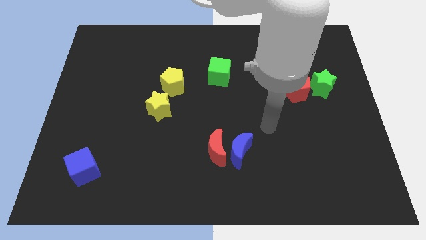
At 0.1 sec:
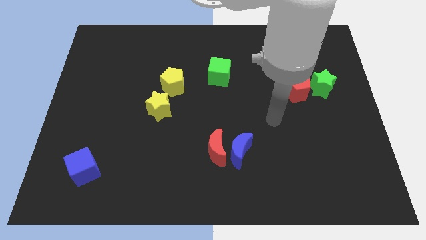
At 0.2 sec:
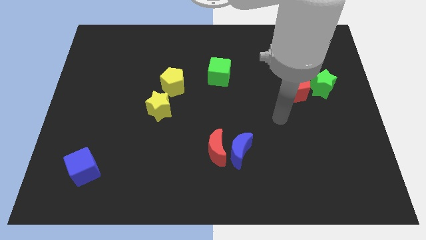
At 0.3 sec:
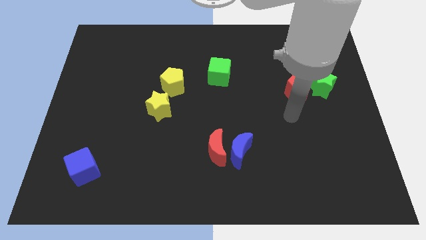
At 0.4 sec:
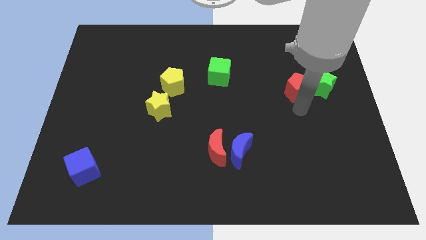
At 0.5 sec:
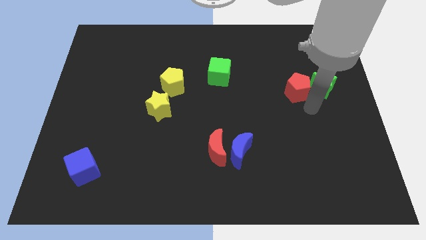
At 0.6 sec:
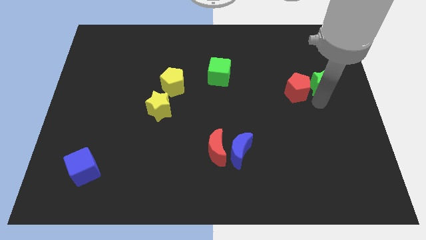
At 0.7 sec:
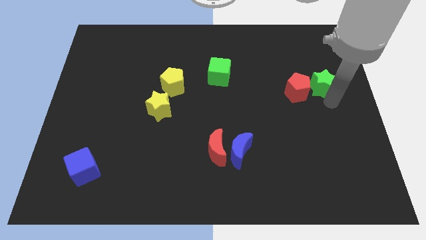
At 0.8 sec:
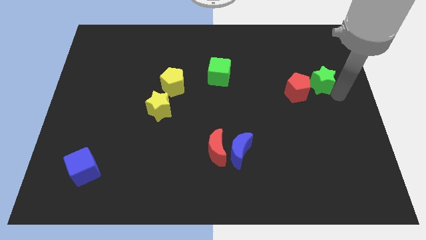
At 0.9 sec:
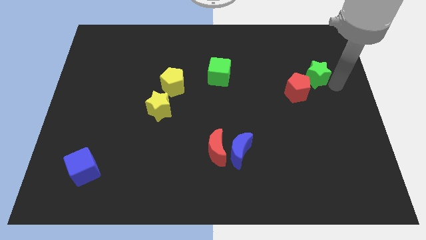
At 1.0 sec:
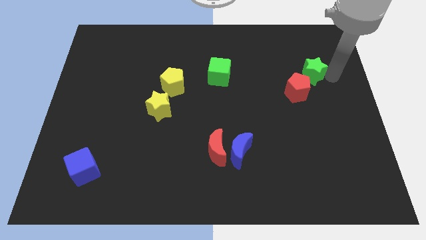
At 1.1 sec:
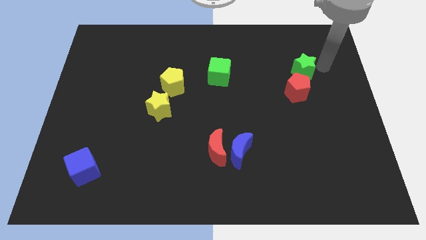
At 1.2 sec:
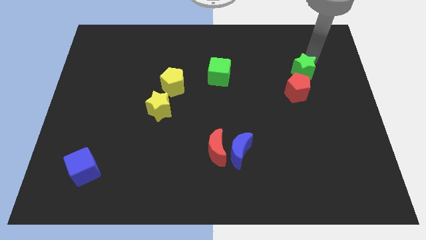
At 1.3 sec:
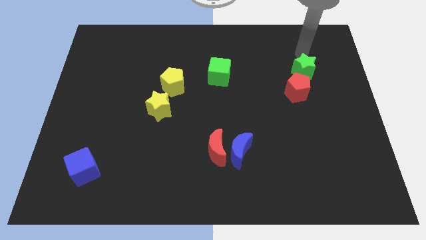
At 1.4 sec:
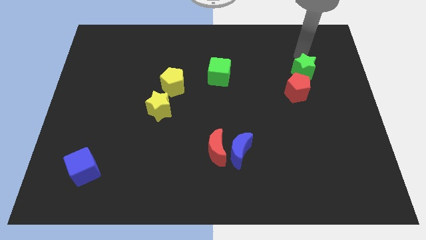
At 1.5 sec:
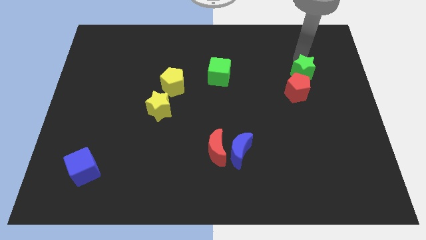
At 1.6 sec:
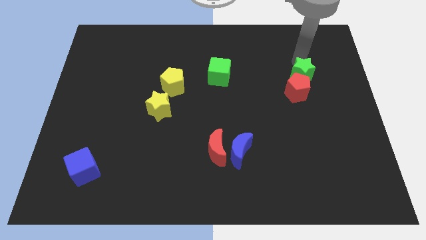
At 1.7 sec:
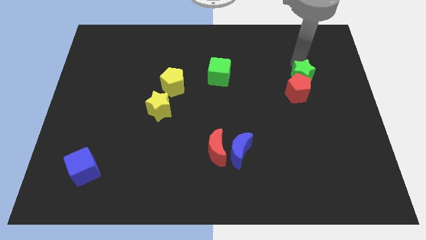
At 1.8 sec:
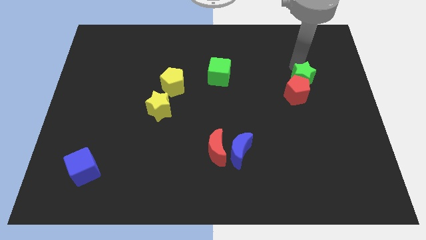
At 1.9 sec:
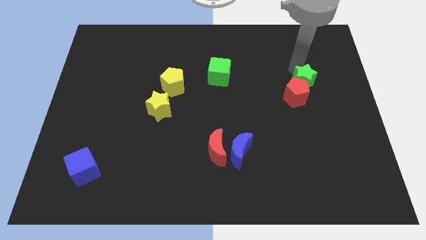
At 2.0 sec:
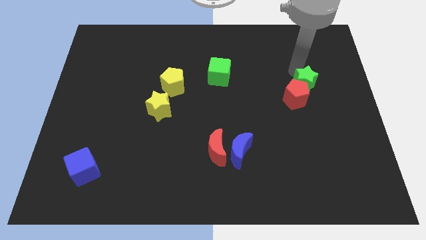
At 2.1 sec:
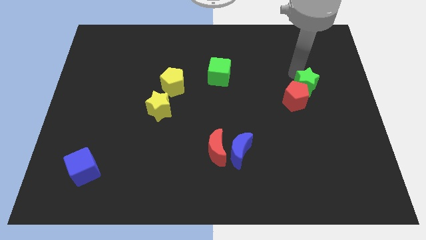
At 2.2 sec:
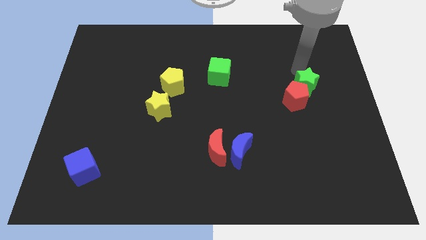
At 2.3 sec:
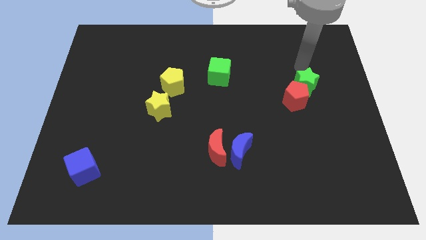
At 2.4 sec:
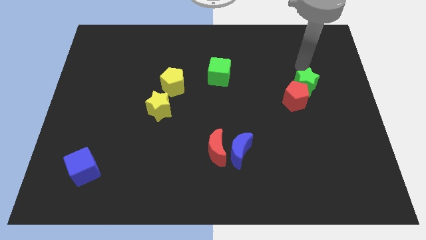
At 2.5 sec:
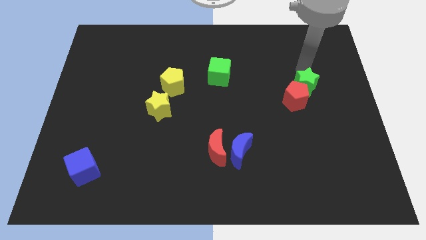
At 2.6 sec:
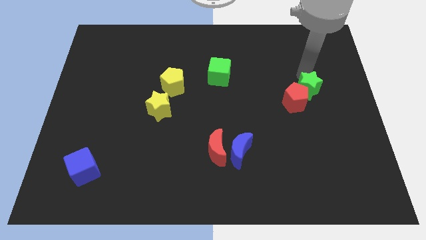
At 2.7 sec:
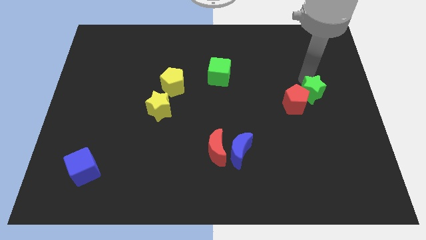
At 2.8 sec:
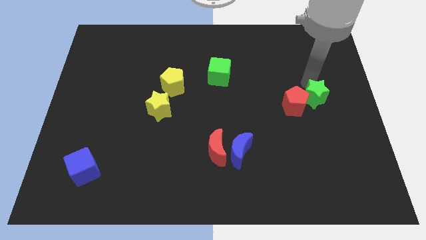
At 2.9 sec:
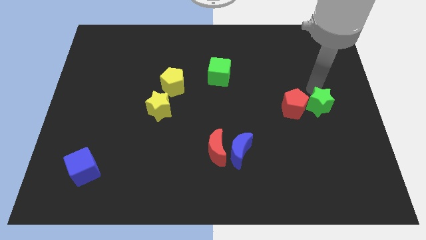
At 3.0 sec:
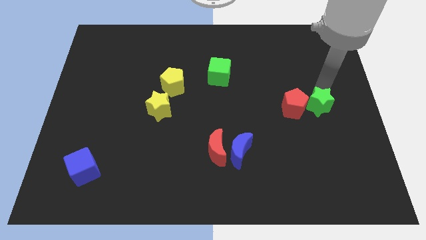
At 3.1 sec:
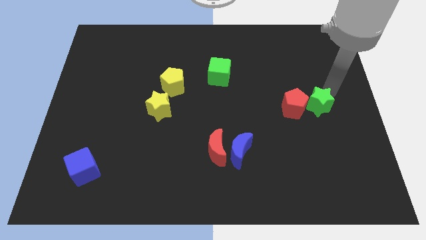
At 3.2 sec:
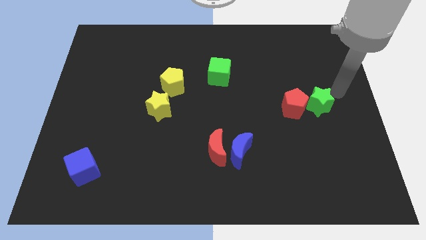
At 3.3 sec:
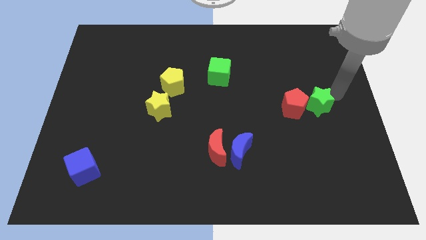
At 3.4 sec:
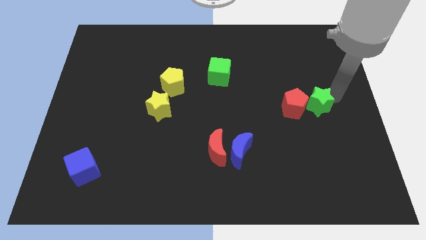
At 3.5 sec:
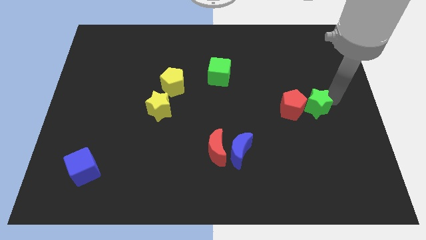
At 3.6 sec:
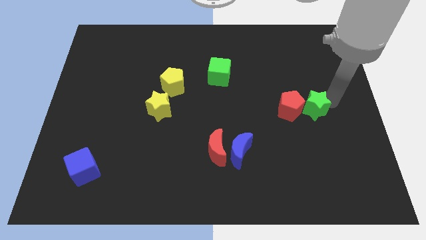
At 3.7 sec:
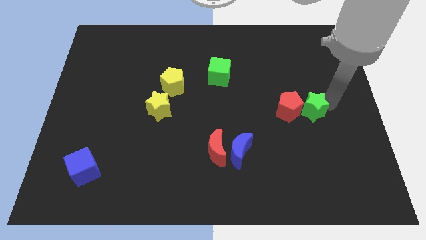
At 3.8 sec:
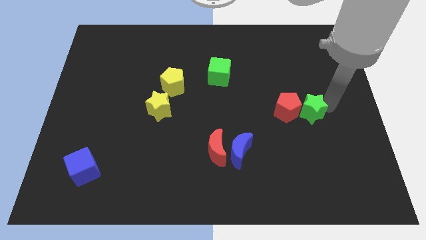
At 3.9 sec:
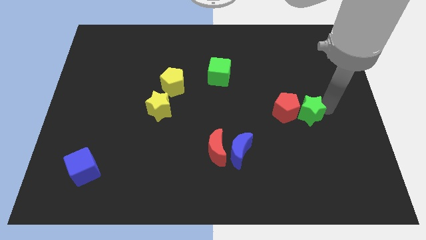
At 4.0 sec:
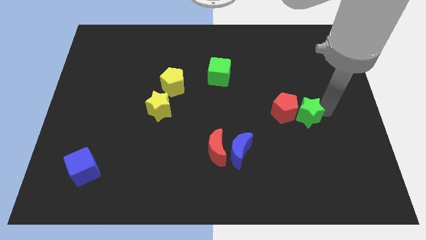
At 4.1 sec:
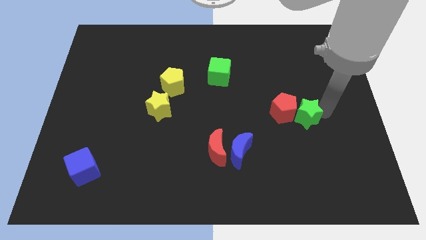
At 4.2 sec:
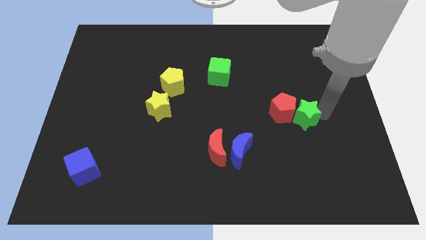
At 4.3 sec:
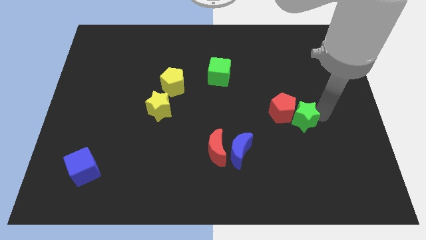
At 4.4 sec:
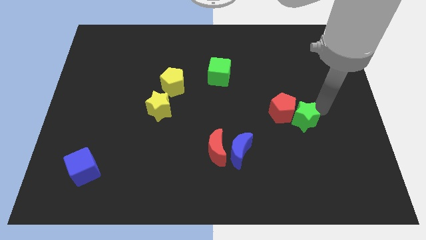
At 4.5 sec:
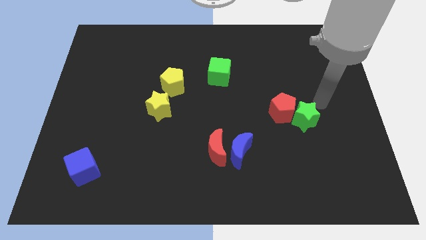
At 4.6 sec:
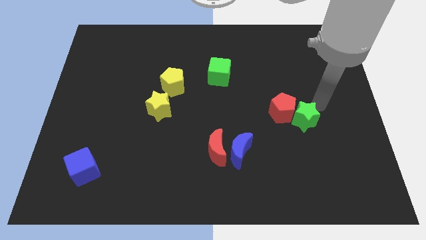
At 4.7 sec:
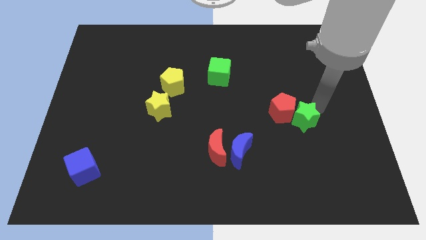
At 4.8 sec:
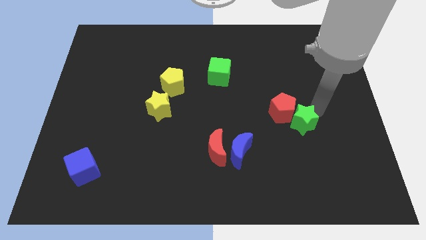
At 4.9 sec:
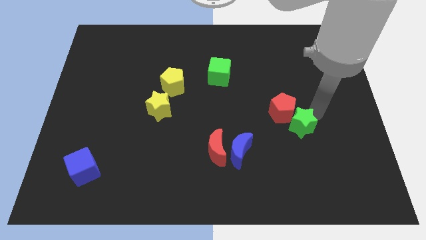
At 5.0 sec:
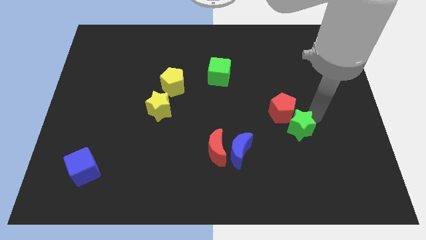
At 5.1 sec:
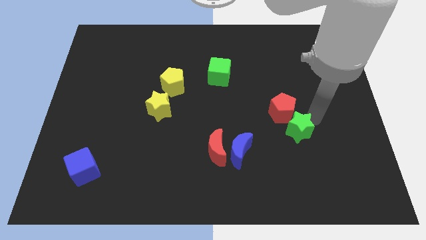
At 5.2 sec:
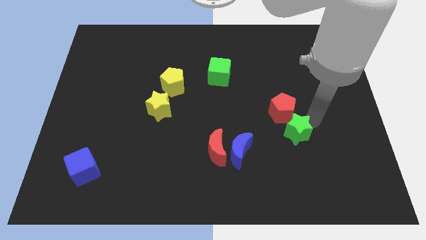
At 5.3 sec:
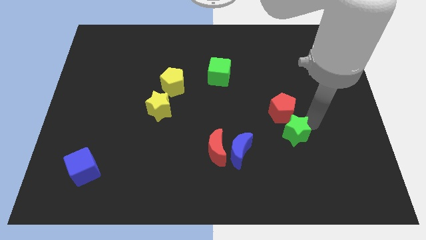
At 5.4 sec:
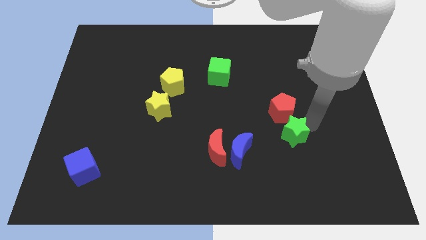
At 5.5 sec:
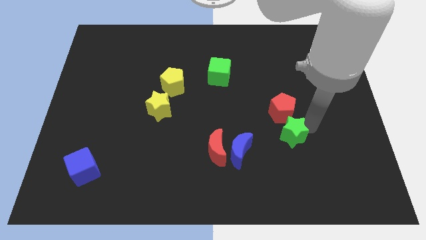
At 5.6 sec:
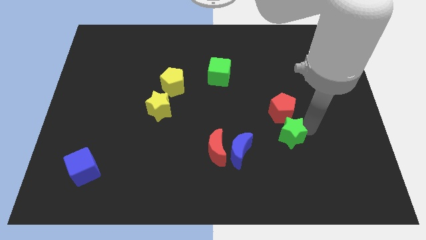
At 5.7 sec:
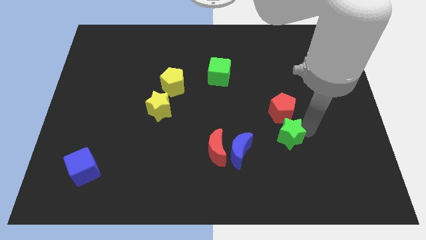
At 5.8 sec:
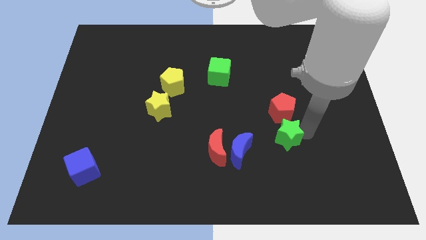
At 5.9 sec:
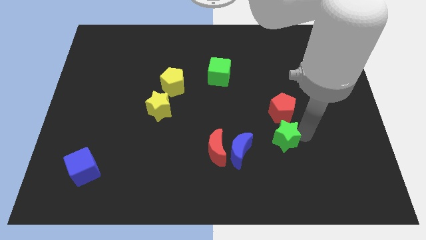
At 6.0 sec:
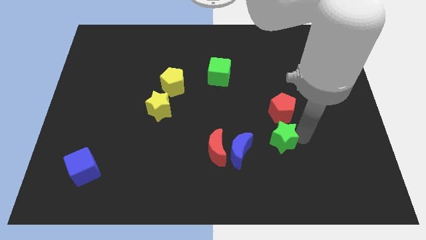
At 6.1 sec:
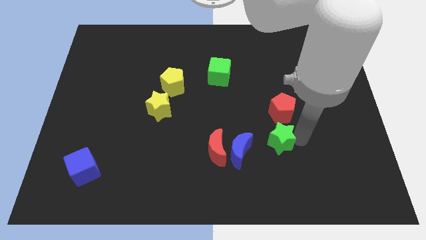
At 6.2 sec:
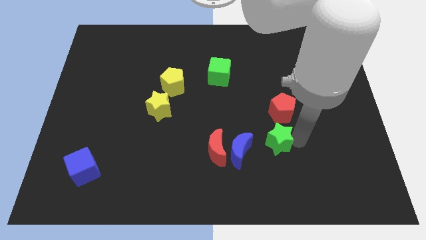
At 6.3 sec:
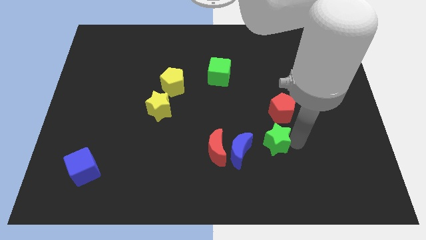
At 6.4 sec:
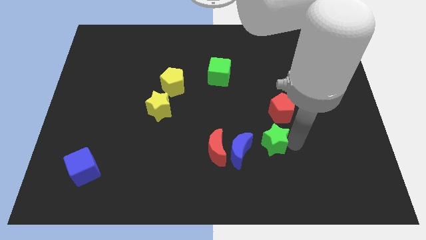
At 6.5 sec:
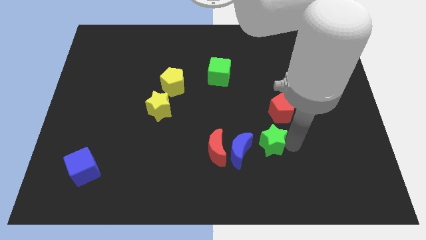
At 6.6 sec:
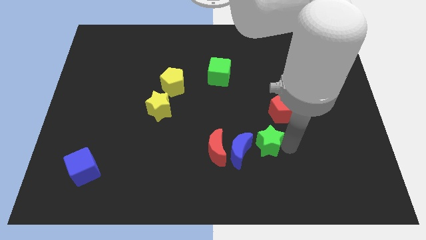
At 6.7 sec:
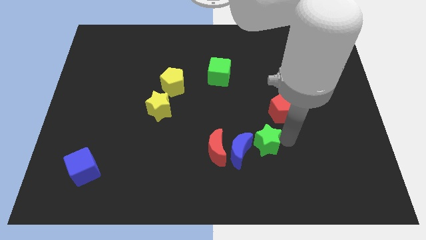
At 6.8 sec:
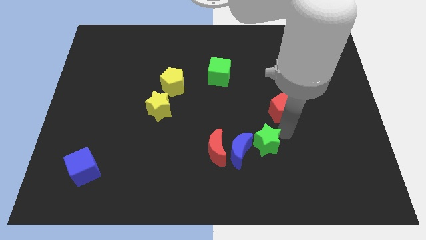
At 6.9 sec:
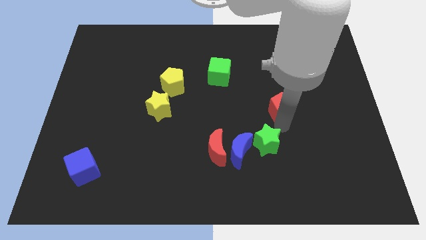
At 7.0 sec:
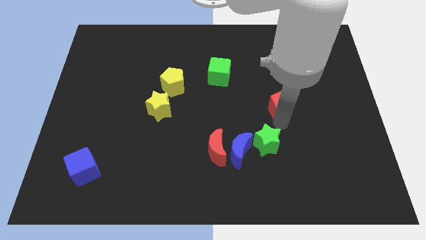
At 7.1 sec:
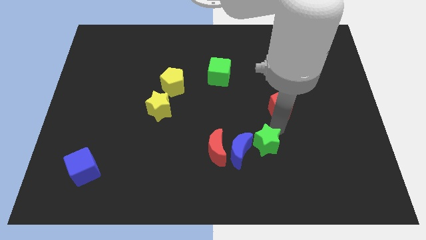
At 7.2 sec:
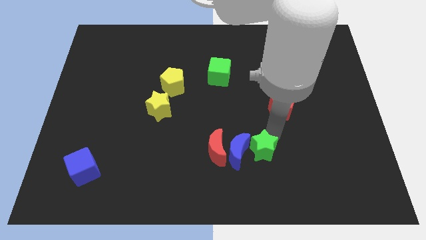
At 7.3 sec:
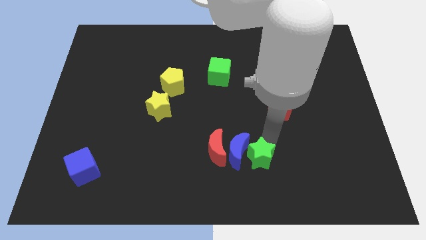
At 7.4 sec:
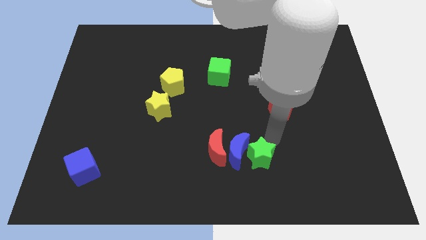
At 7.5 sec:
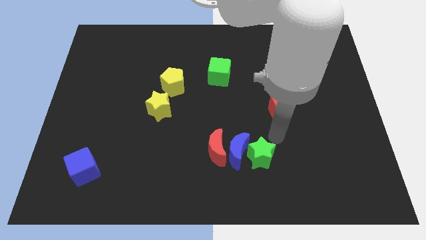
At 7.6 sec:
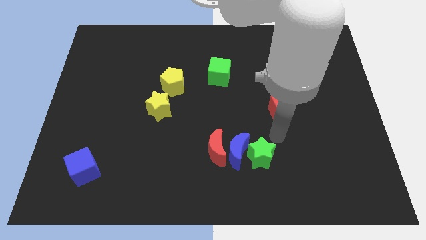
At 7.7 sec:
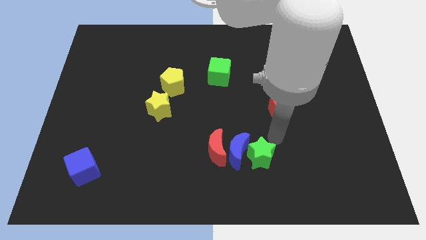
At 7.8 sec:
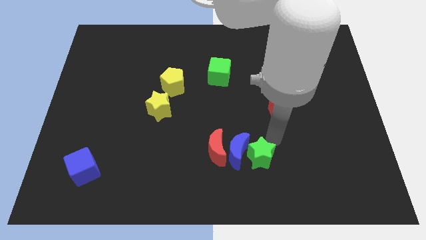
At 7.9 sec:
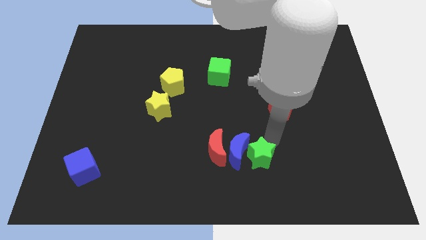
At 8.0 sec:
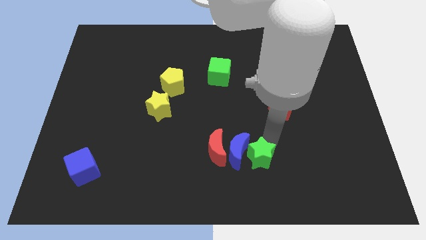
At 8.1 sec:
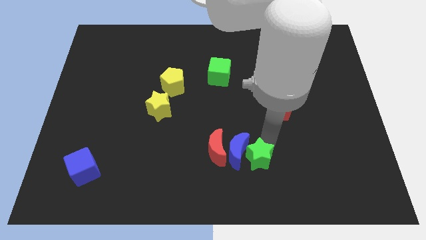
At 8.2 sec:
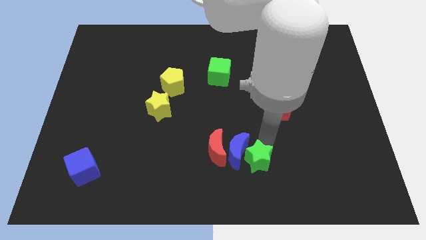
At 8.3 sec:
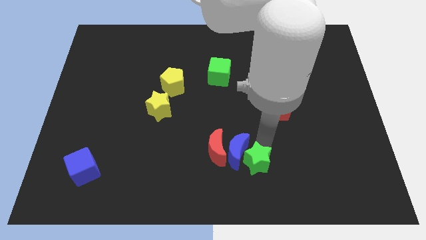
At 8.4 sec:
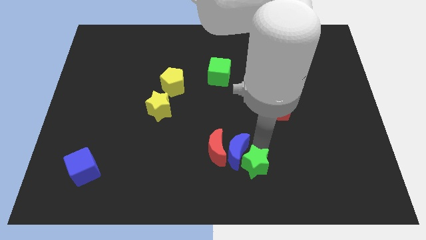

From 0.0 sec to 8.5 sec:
slide the green star to the bottom side
